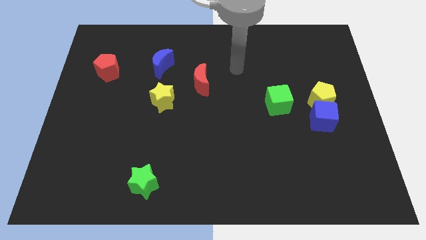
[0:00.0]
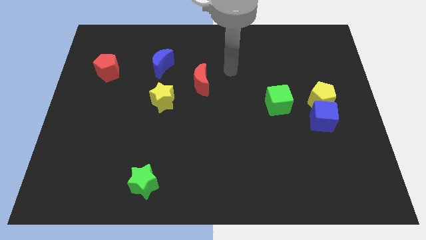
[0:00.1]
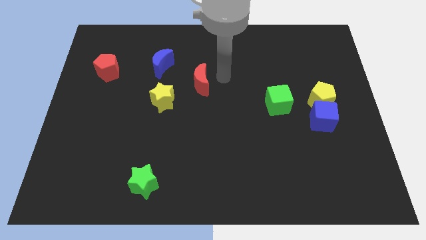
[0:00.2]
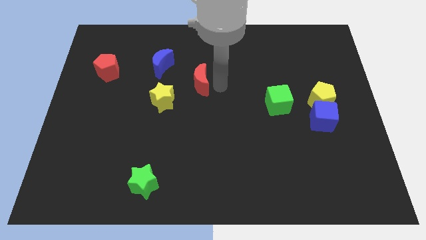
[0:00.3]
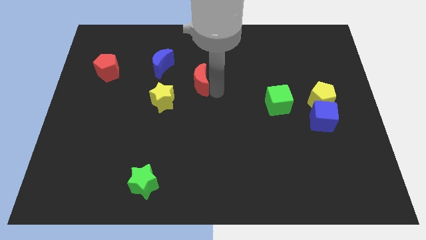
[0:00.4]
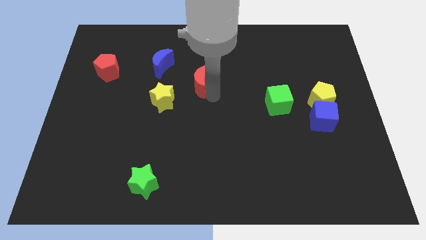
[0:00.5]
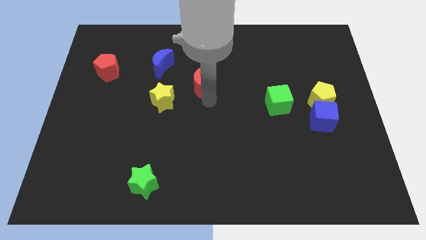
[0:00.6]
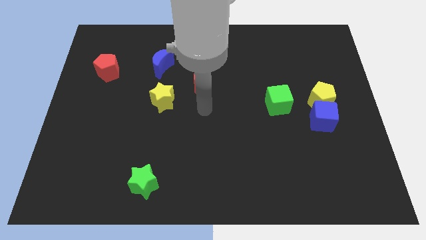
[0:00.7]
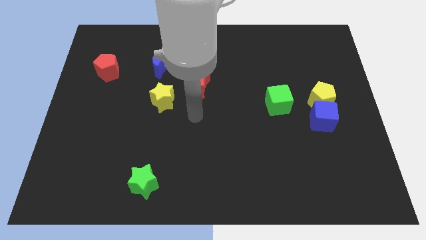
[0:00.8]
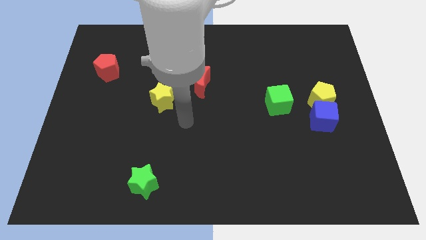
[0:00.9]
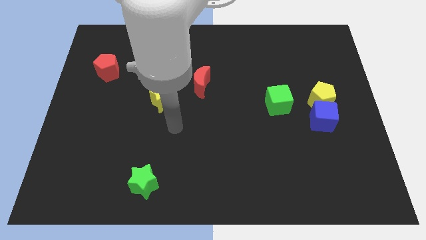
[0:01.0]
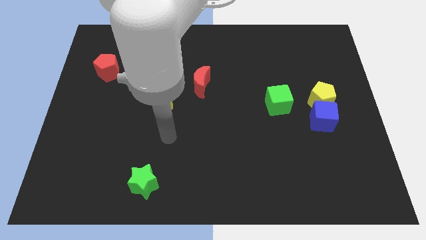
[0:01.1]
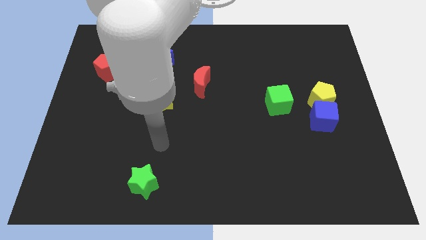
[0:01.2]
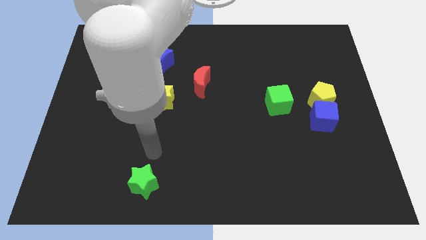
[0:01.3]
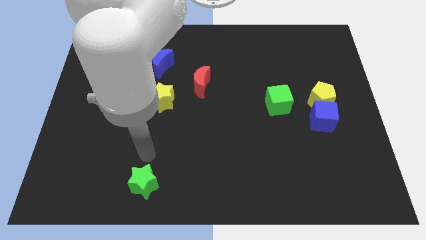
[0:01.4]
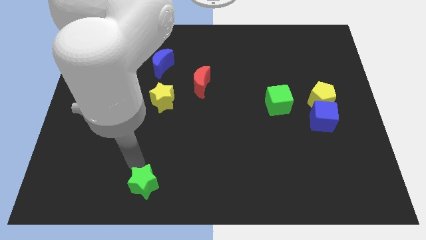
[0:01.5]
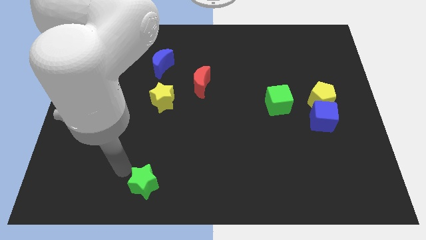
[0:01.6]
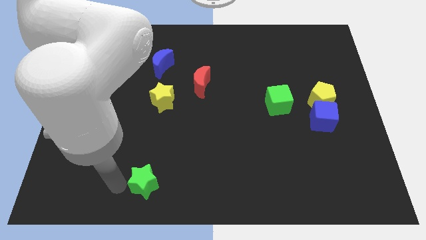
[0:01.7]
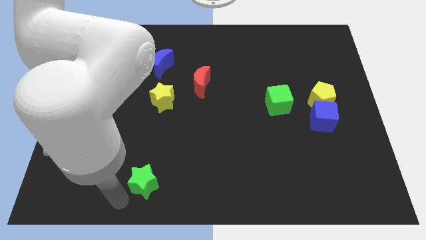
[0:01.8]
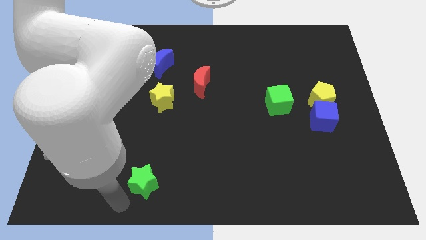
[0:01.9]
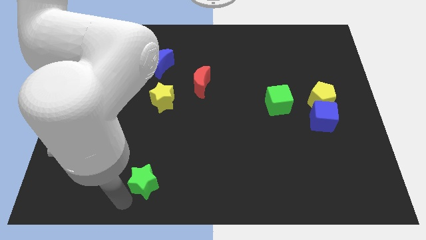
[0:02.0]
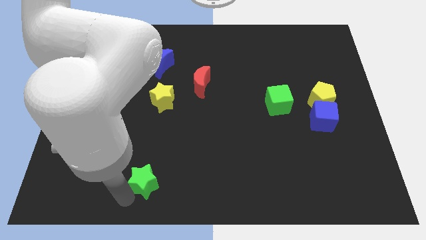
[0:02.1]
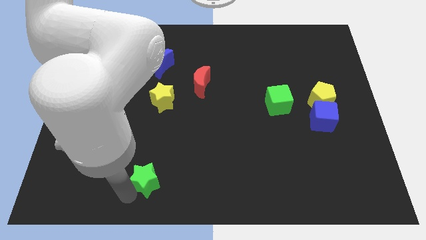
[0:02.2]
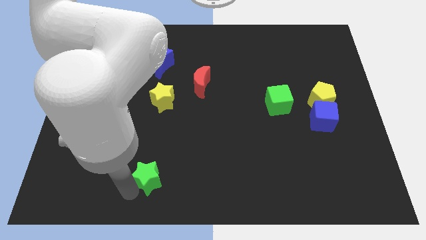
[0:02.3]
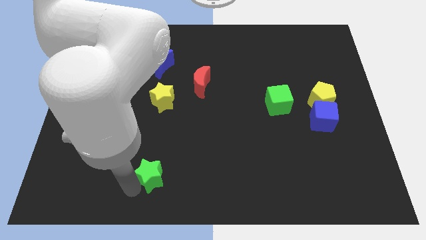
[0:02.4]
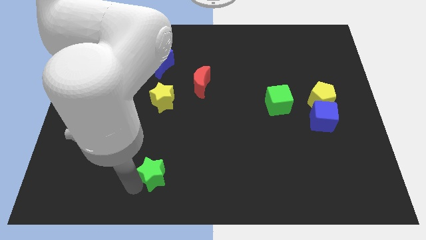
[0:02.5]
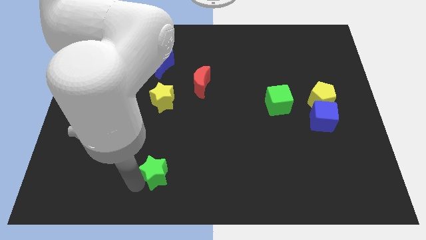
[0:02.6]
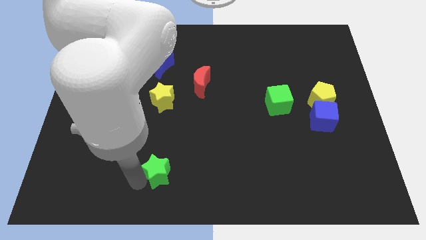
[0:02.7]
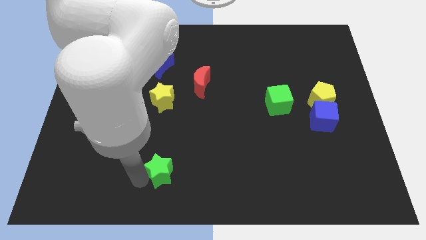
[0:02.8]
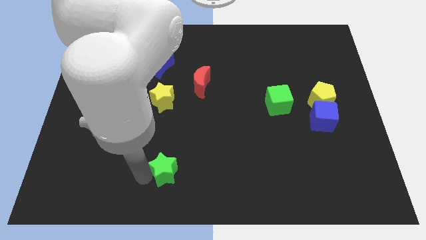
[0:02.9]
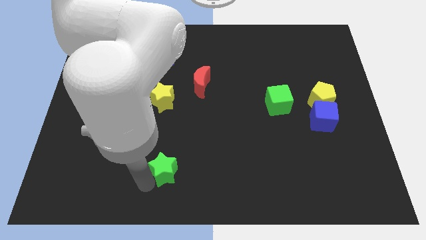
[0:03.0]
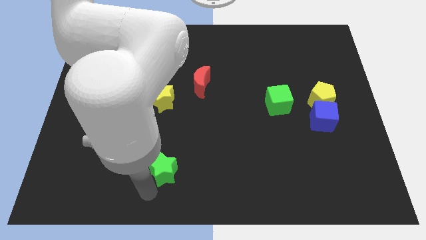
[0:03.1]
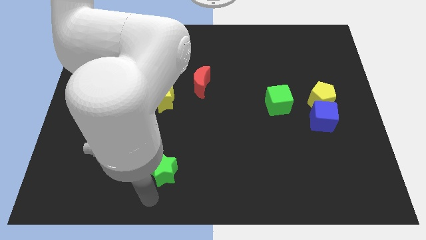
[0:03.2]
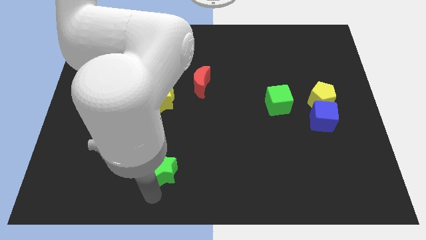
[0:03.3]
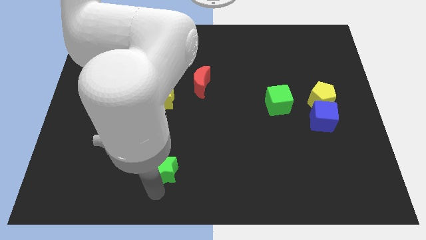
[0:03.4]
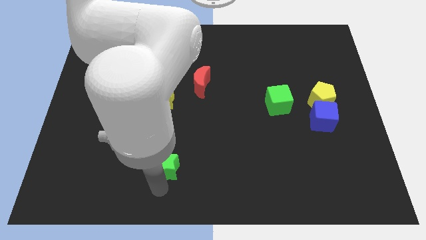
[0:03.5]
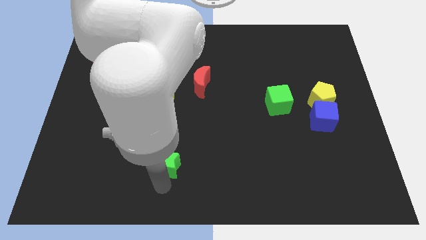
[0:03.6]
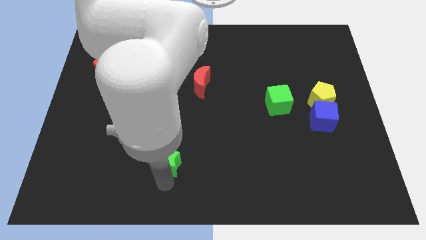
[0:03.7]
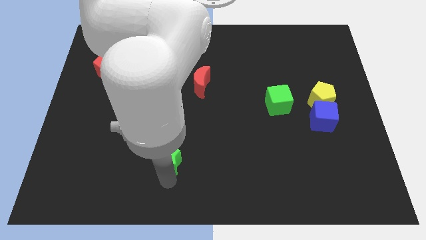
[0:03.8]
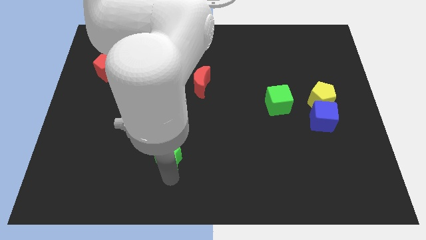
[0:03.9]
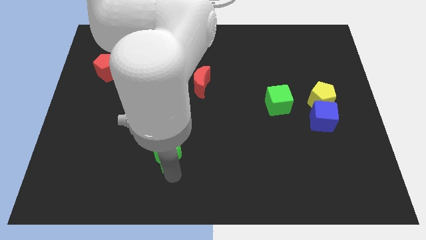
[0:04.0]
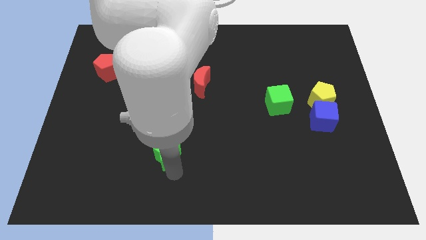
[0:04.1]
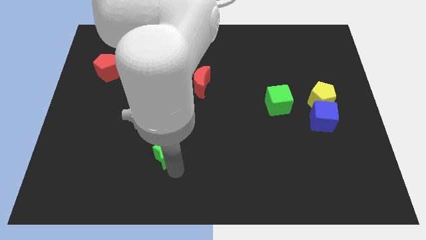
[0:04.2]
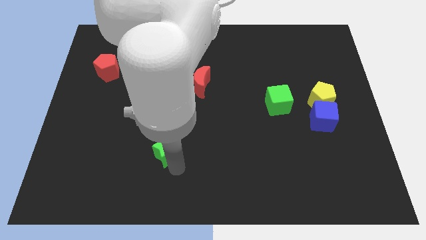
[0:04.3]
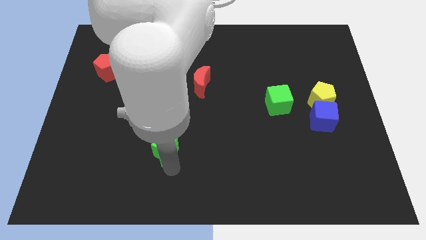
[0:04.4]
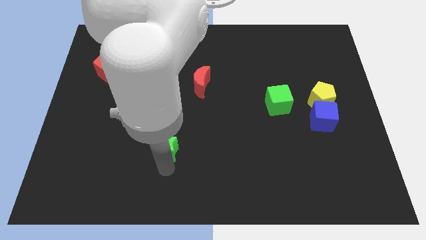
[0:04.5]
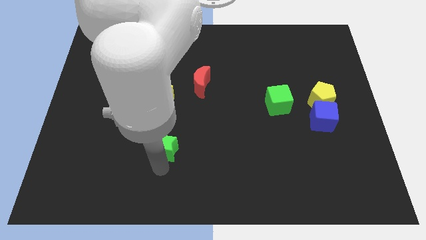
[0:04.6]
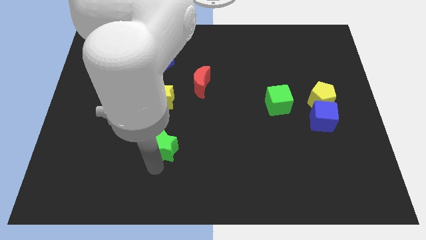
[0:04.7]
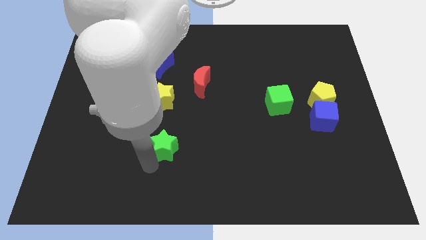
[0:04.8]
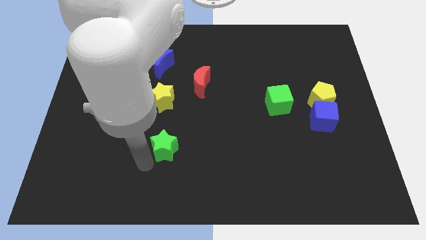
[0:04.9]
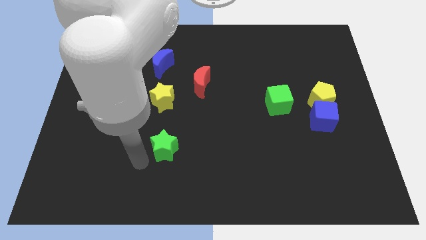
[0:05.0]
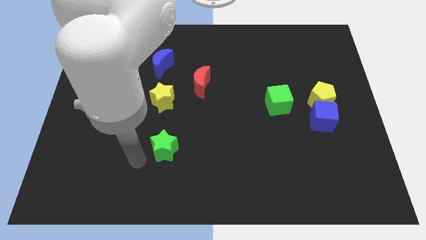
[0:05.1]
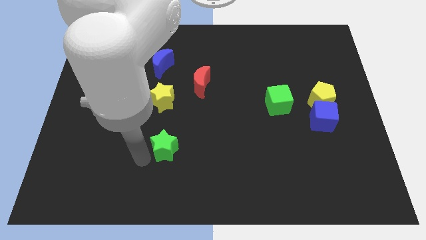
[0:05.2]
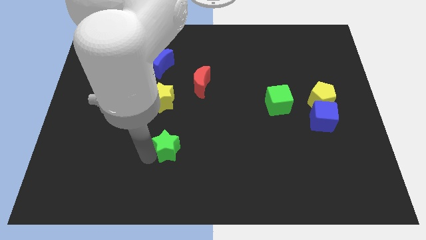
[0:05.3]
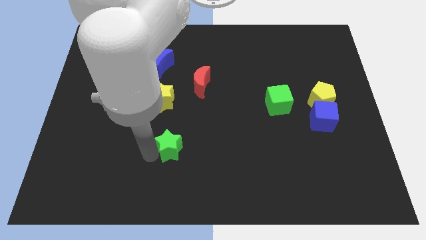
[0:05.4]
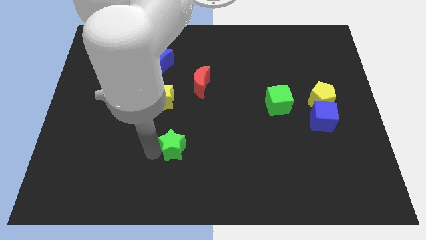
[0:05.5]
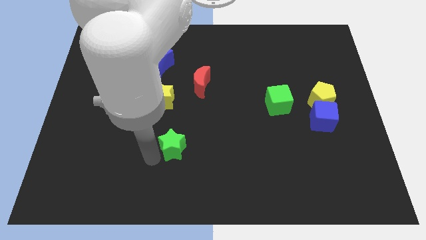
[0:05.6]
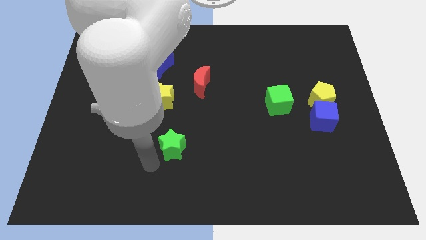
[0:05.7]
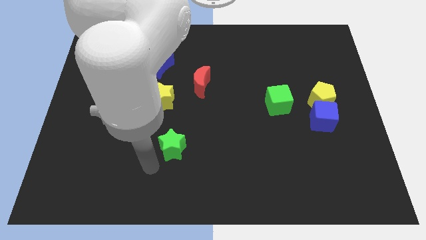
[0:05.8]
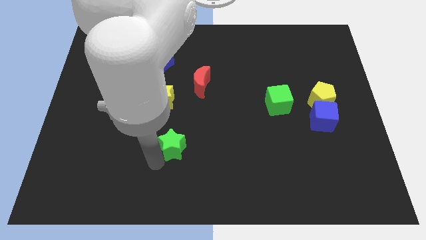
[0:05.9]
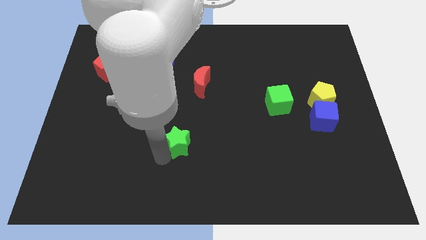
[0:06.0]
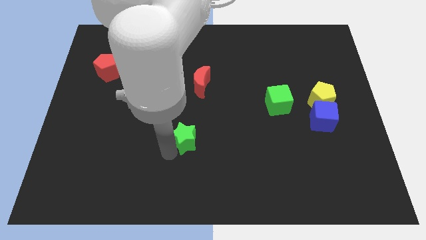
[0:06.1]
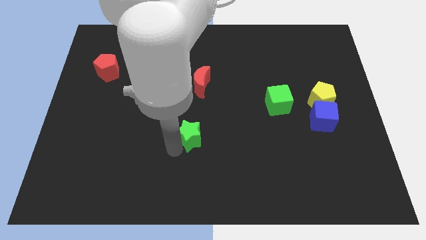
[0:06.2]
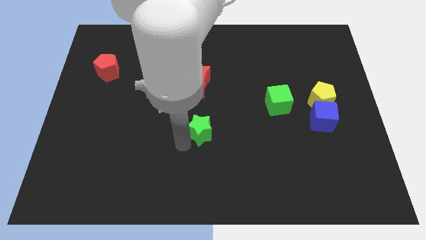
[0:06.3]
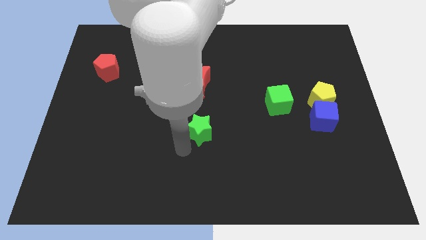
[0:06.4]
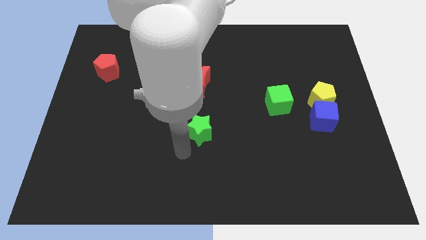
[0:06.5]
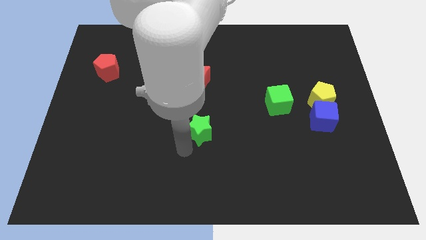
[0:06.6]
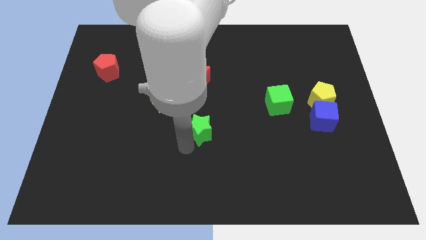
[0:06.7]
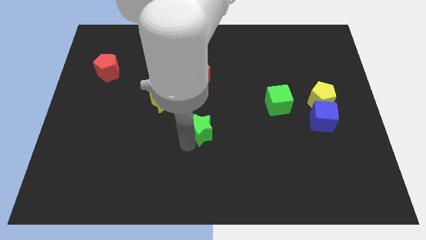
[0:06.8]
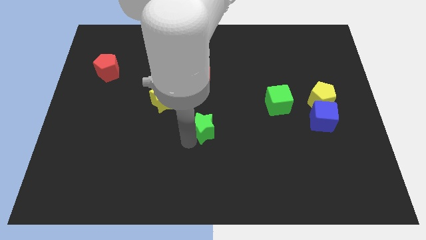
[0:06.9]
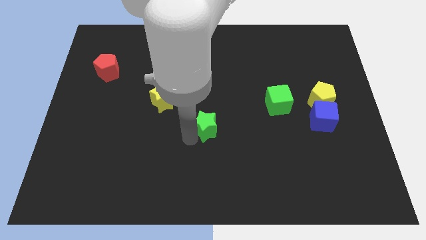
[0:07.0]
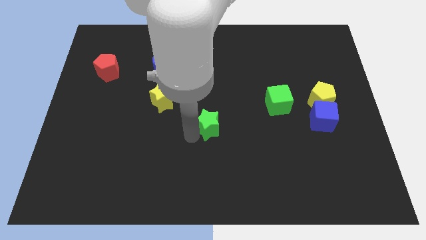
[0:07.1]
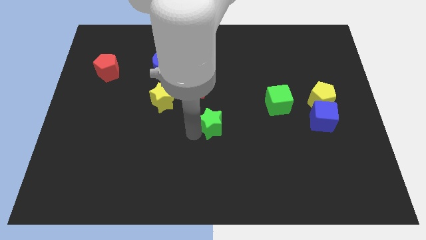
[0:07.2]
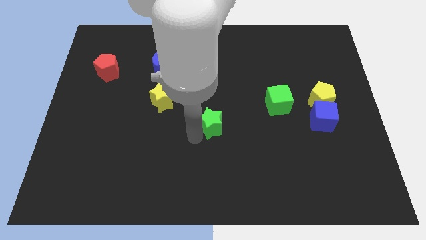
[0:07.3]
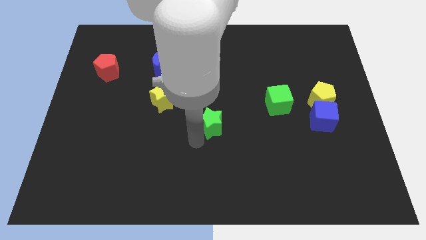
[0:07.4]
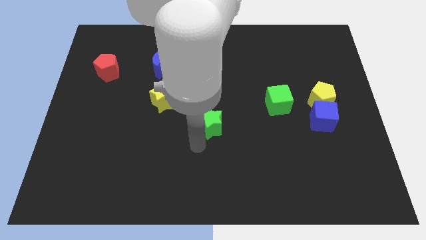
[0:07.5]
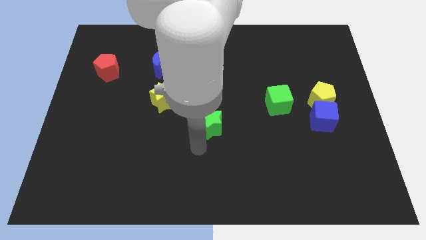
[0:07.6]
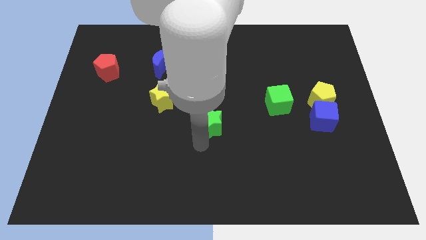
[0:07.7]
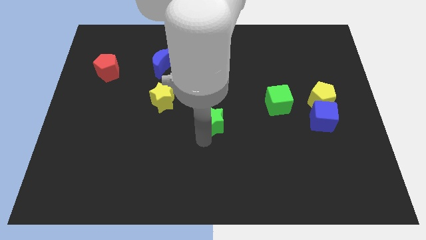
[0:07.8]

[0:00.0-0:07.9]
push the green star upwards and to the right diagonally

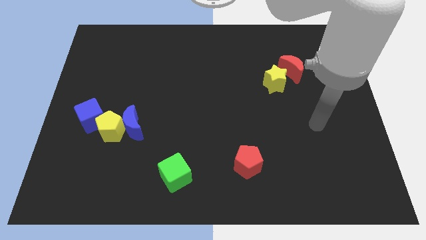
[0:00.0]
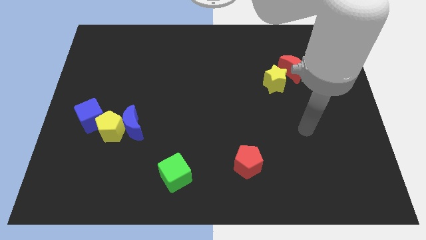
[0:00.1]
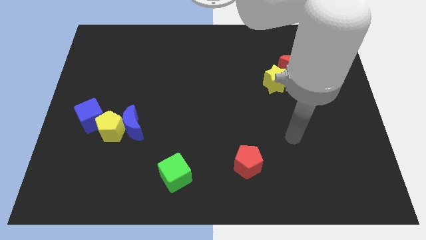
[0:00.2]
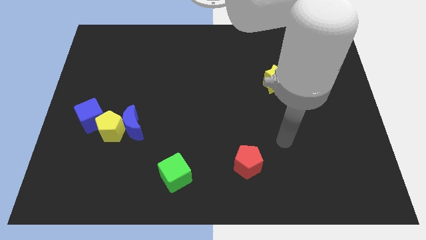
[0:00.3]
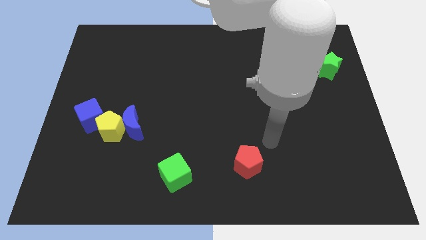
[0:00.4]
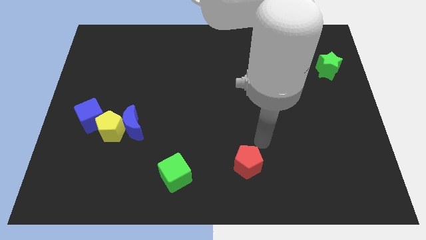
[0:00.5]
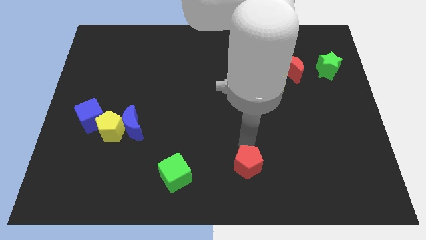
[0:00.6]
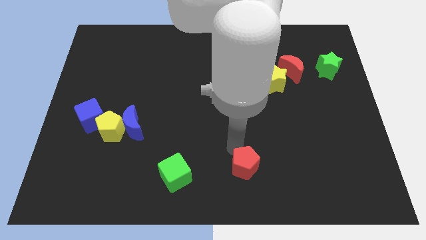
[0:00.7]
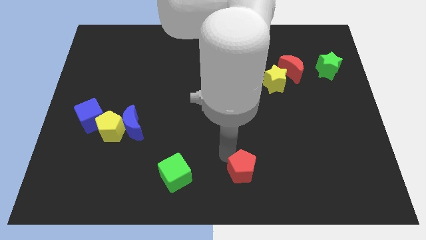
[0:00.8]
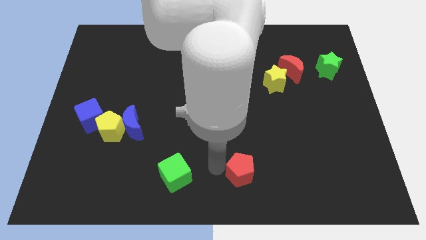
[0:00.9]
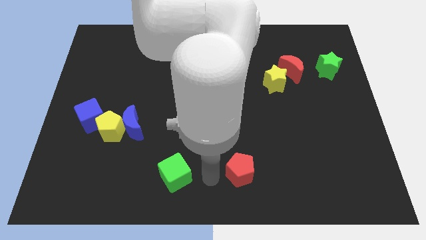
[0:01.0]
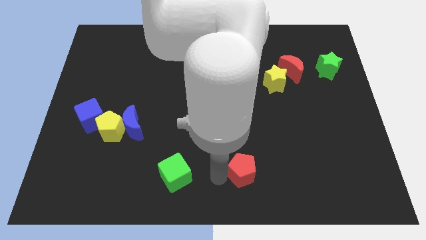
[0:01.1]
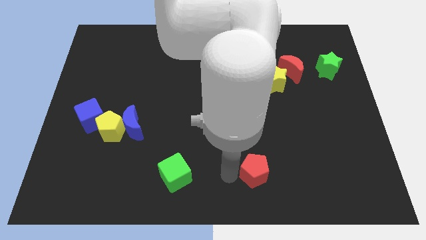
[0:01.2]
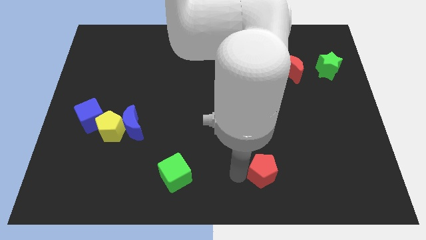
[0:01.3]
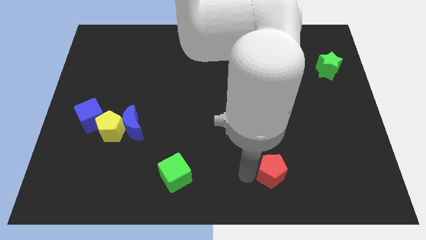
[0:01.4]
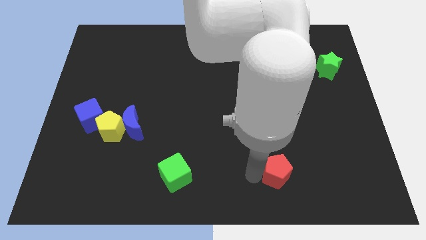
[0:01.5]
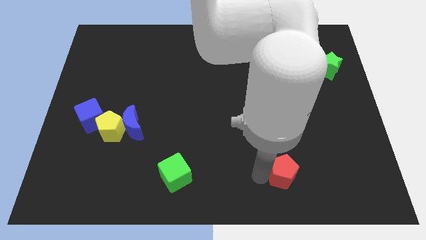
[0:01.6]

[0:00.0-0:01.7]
slide the red pentagon slightly to the right
